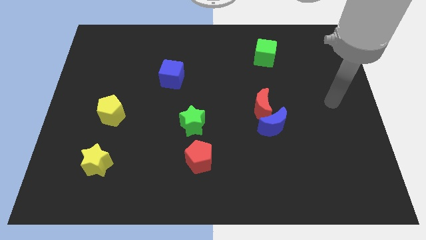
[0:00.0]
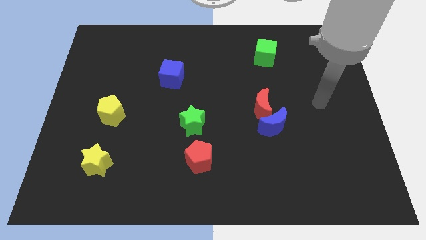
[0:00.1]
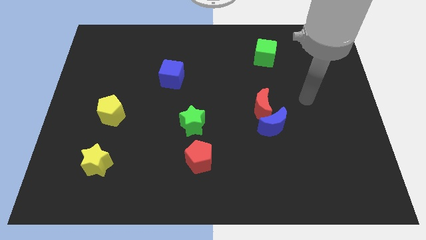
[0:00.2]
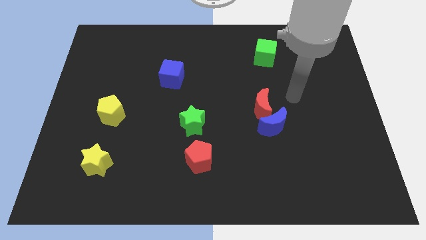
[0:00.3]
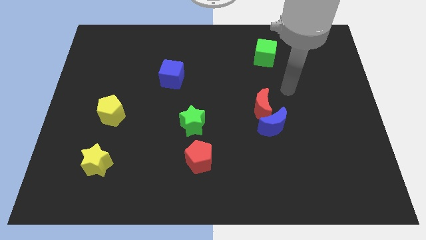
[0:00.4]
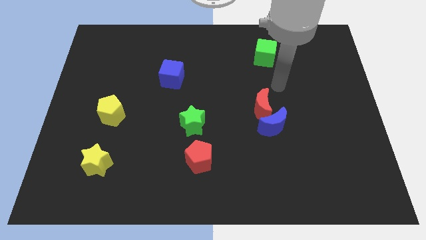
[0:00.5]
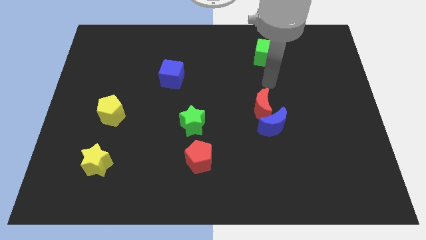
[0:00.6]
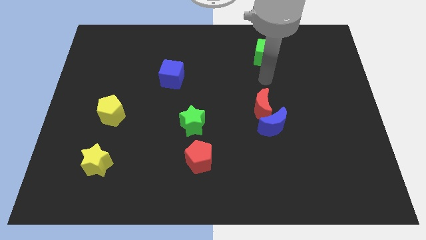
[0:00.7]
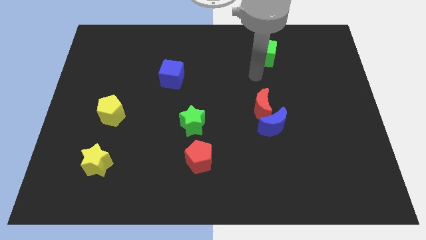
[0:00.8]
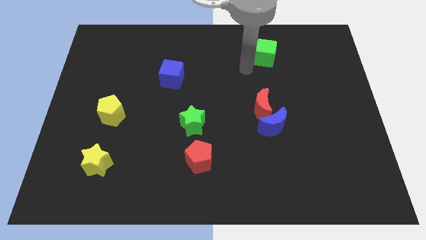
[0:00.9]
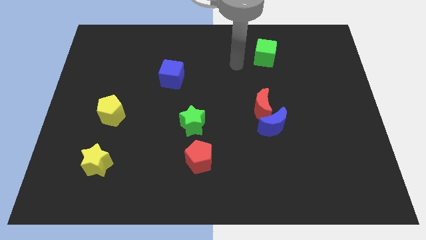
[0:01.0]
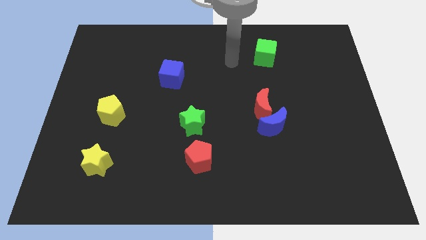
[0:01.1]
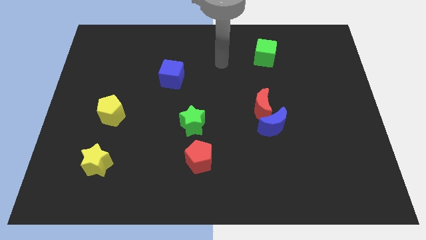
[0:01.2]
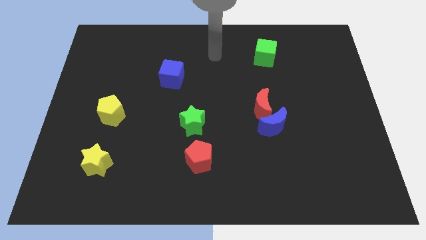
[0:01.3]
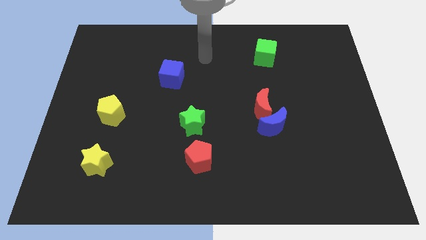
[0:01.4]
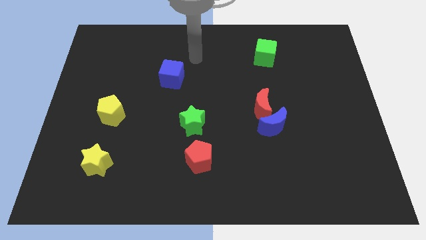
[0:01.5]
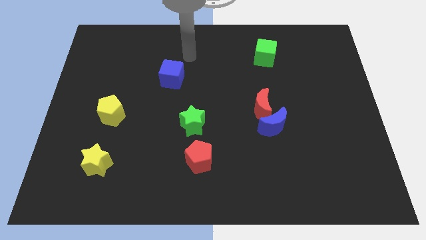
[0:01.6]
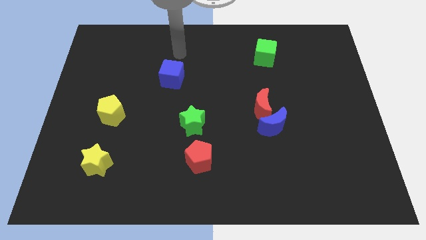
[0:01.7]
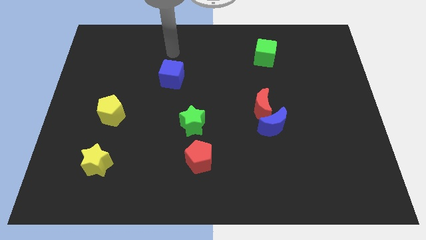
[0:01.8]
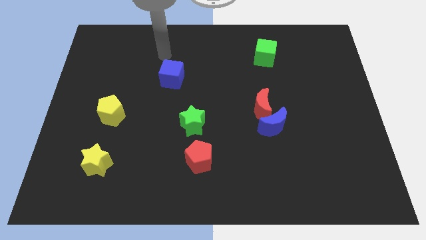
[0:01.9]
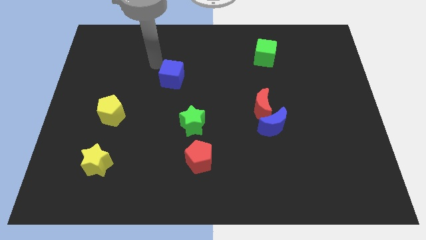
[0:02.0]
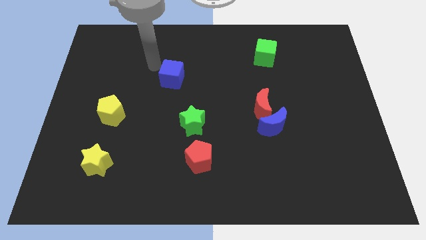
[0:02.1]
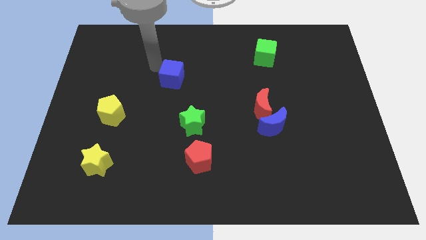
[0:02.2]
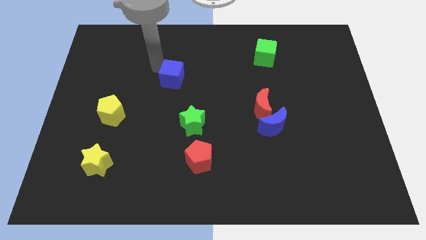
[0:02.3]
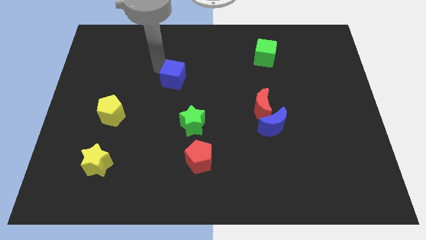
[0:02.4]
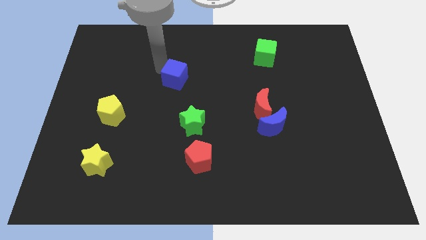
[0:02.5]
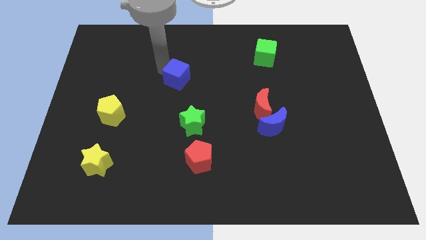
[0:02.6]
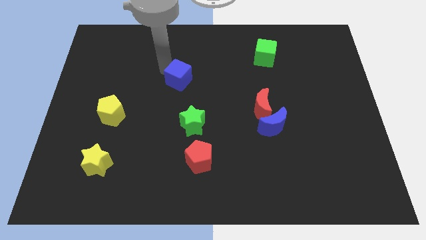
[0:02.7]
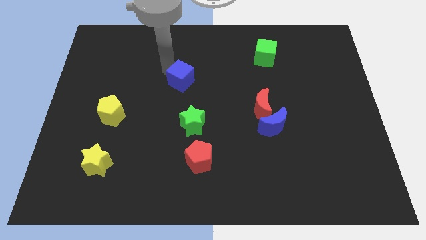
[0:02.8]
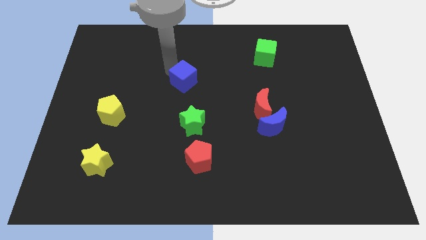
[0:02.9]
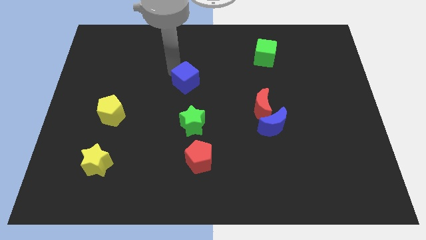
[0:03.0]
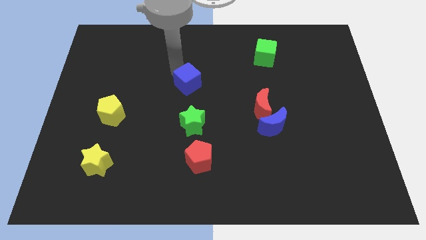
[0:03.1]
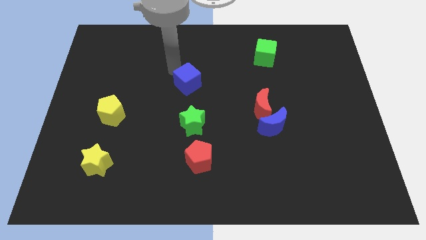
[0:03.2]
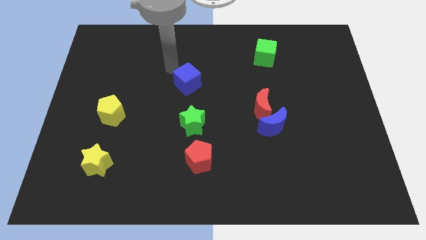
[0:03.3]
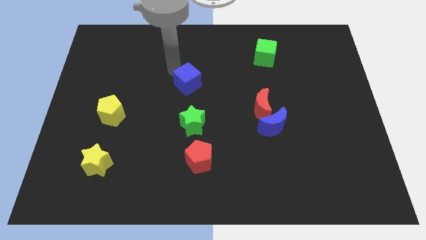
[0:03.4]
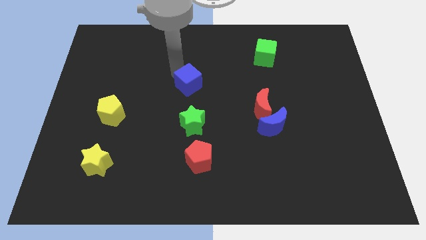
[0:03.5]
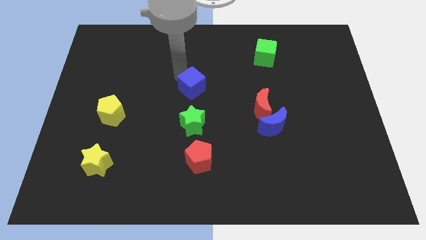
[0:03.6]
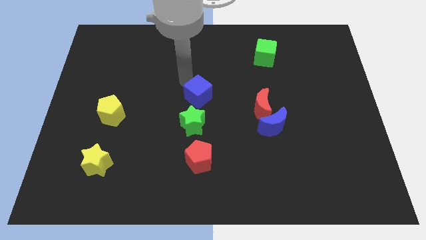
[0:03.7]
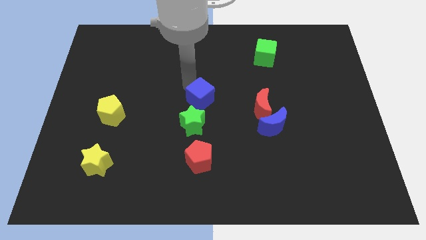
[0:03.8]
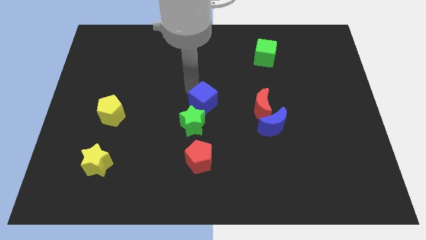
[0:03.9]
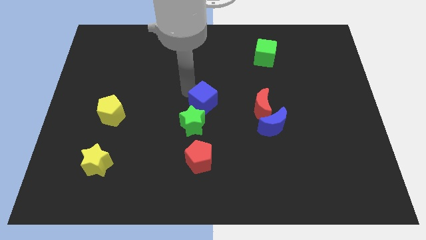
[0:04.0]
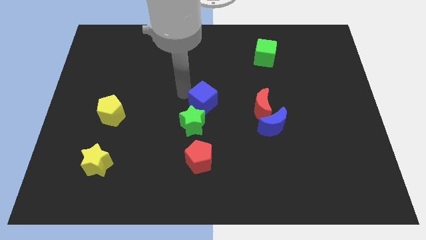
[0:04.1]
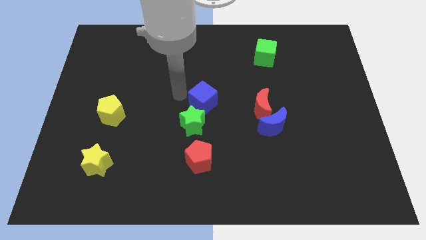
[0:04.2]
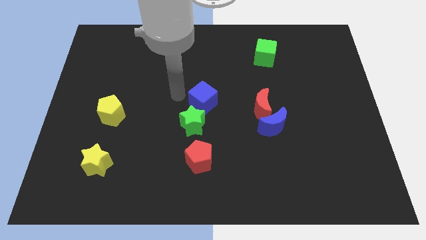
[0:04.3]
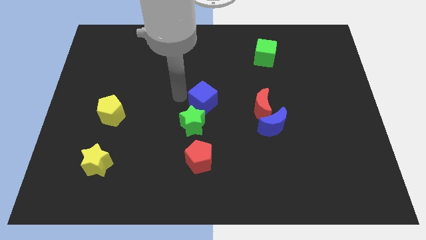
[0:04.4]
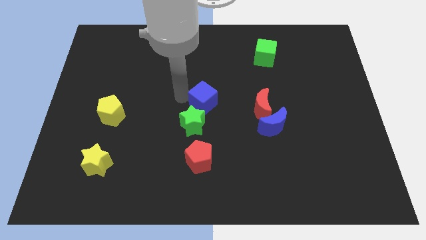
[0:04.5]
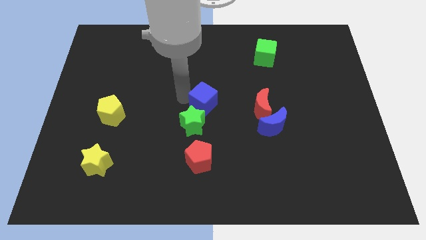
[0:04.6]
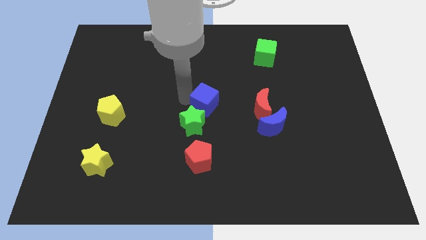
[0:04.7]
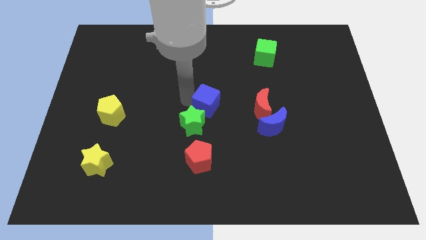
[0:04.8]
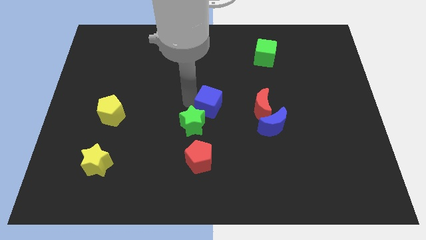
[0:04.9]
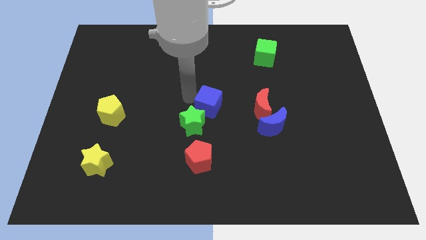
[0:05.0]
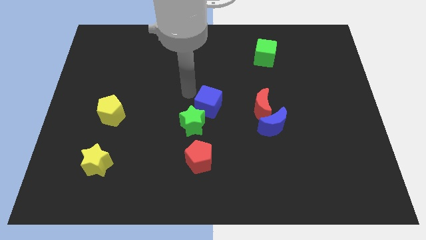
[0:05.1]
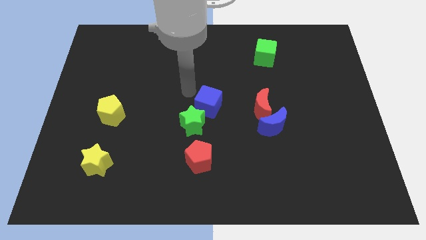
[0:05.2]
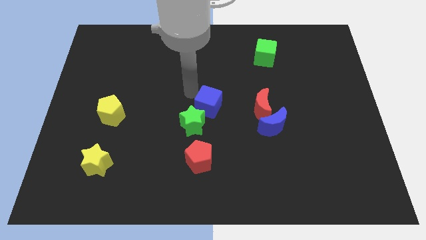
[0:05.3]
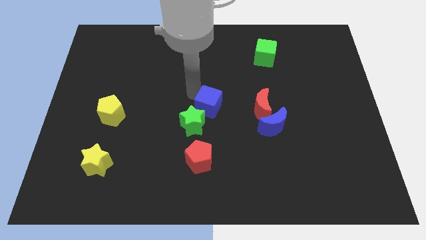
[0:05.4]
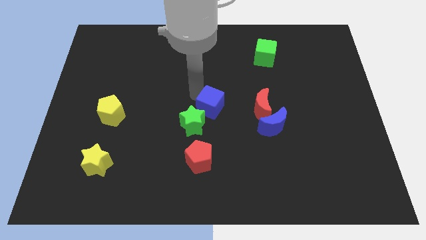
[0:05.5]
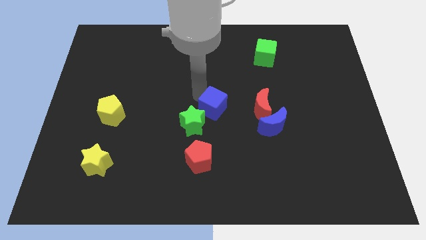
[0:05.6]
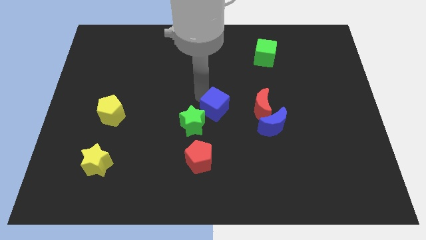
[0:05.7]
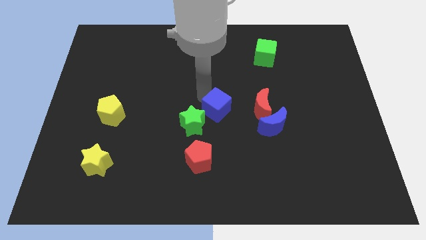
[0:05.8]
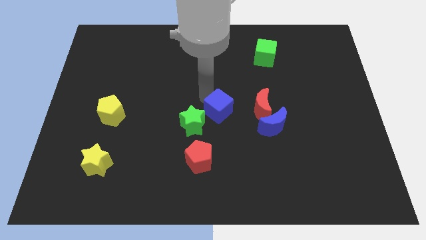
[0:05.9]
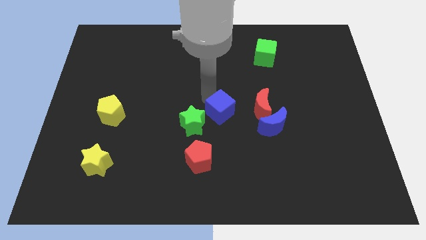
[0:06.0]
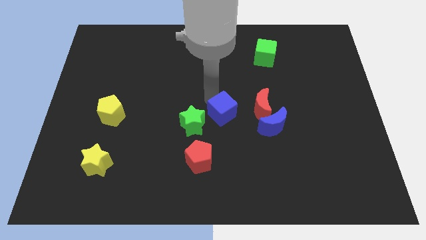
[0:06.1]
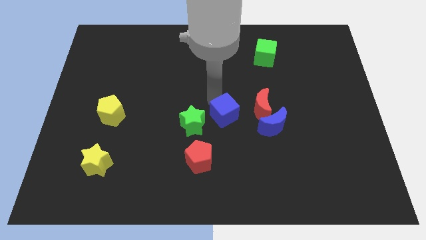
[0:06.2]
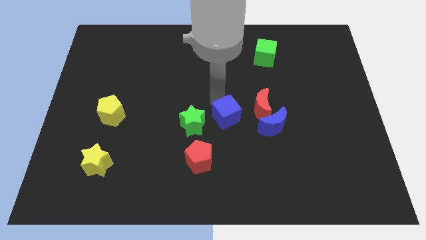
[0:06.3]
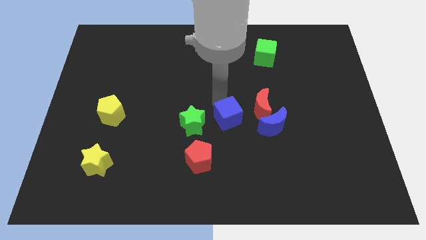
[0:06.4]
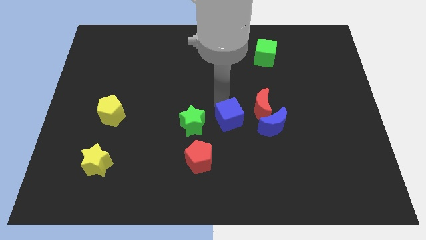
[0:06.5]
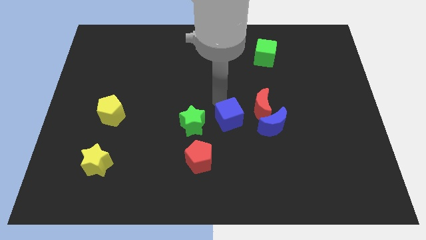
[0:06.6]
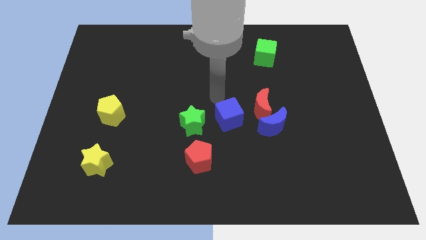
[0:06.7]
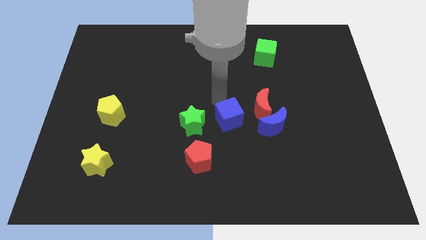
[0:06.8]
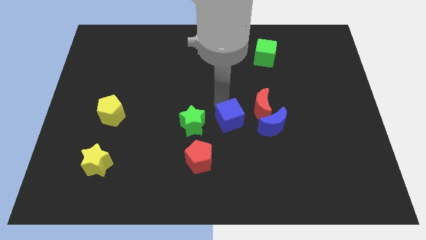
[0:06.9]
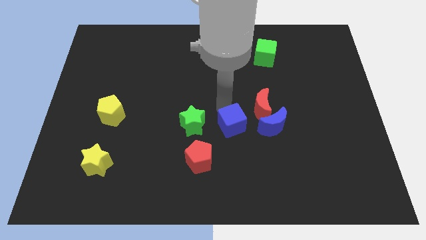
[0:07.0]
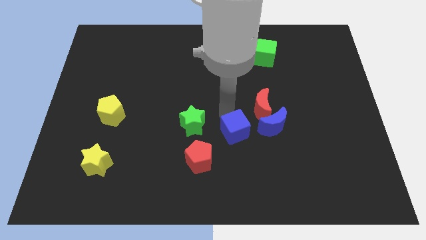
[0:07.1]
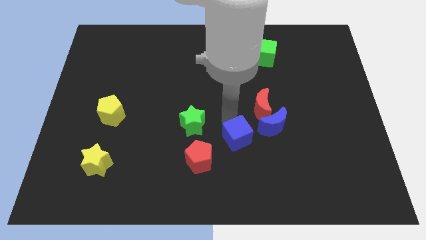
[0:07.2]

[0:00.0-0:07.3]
move the blue cube to the bottom left of the blue moon
